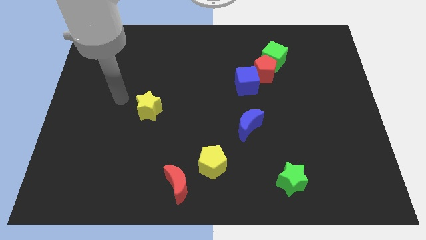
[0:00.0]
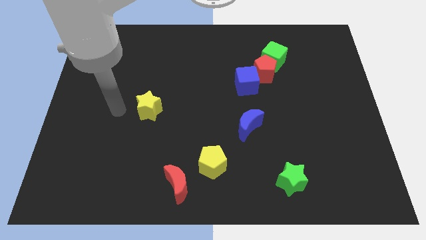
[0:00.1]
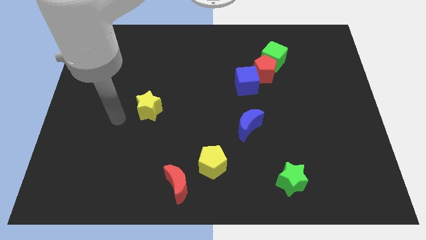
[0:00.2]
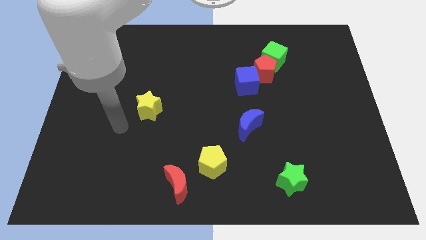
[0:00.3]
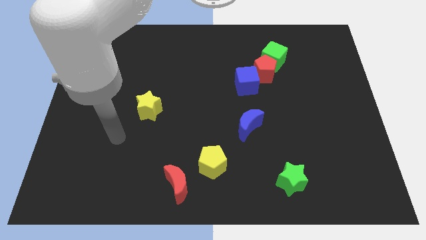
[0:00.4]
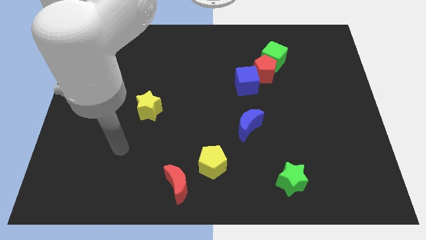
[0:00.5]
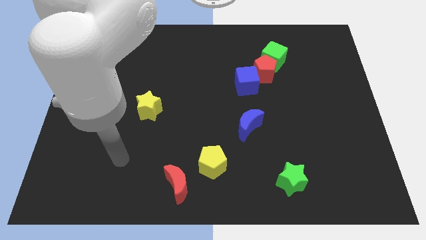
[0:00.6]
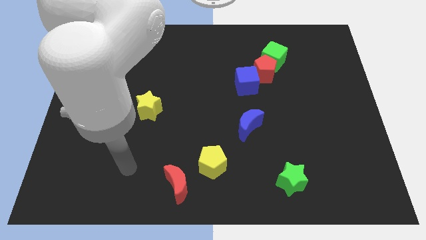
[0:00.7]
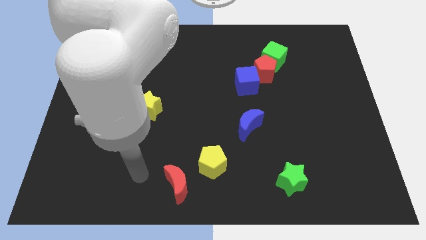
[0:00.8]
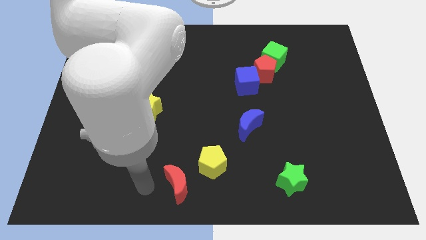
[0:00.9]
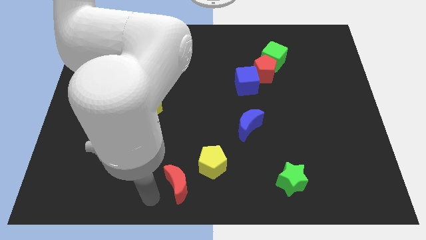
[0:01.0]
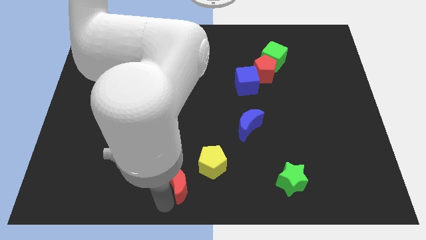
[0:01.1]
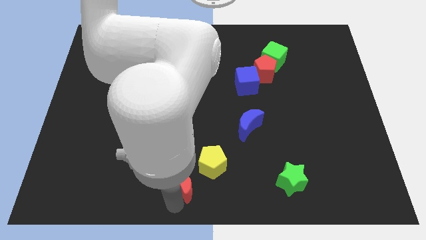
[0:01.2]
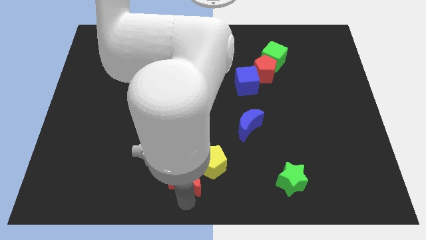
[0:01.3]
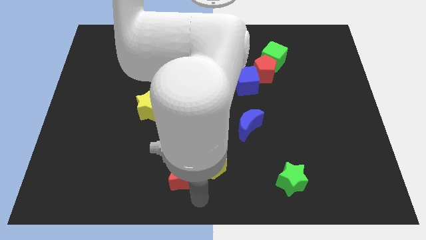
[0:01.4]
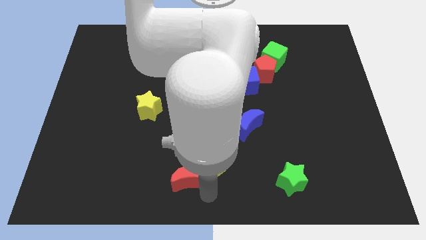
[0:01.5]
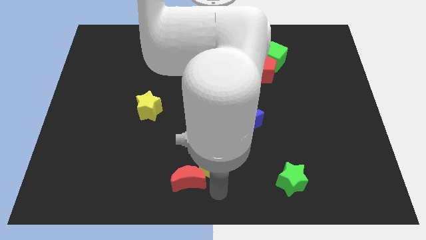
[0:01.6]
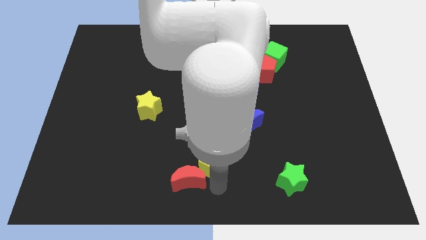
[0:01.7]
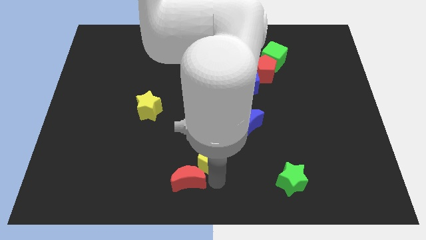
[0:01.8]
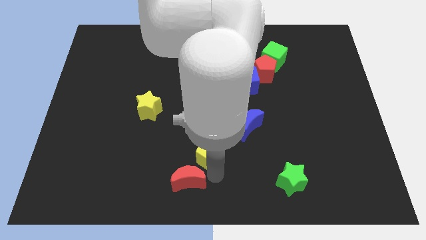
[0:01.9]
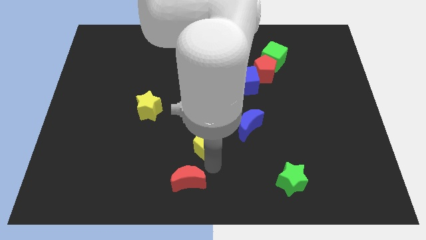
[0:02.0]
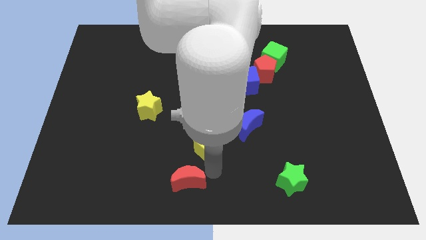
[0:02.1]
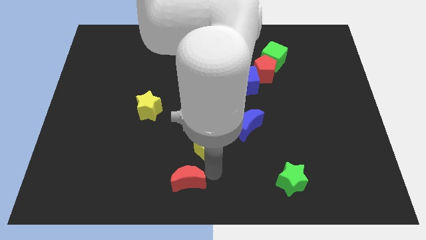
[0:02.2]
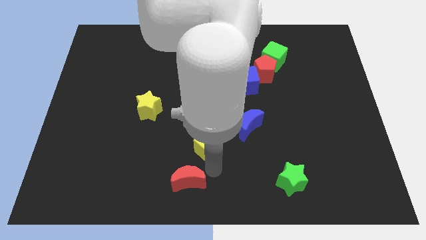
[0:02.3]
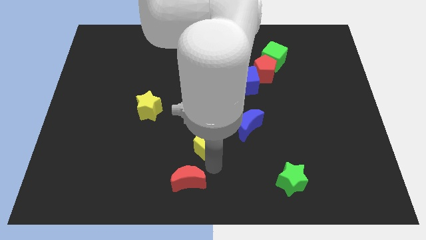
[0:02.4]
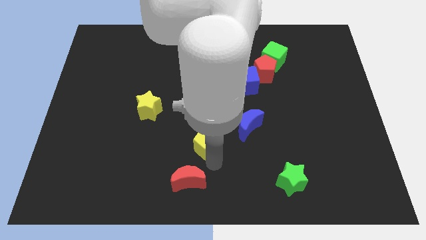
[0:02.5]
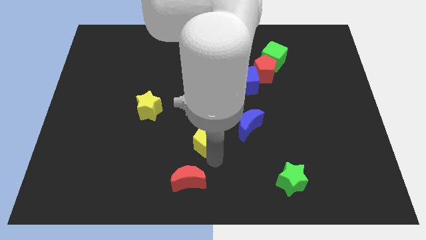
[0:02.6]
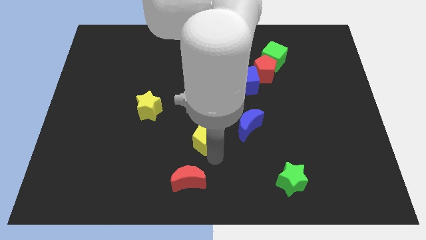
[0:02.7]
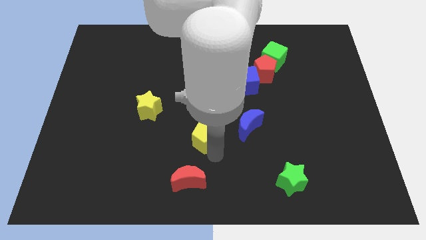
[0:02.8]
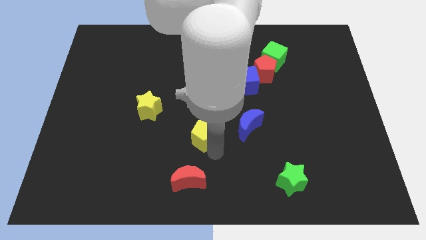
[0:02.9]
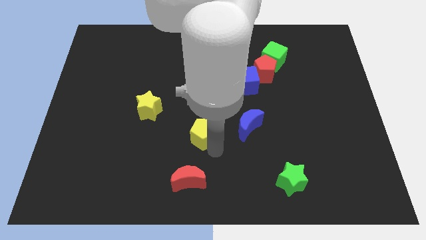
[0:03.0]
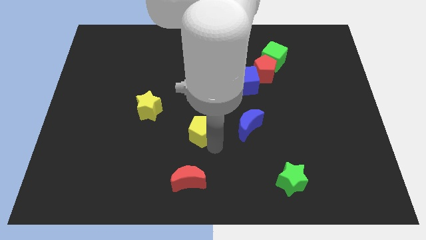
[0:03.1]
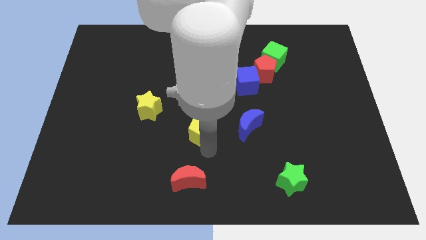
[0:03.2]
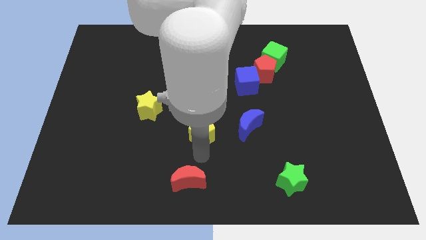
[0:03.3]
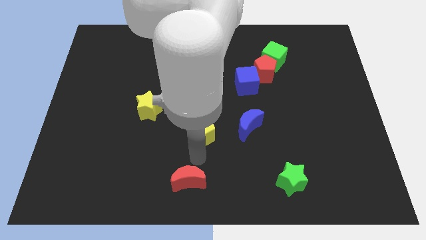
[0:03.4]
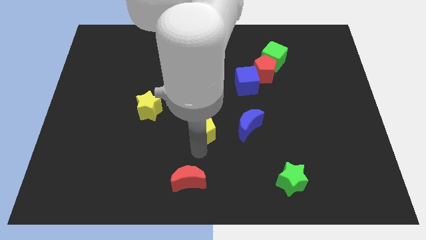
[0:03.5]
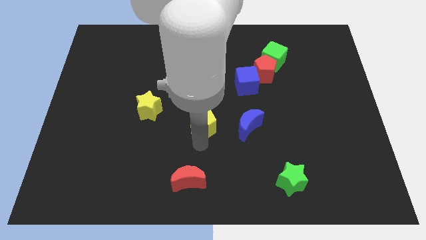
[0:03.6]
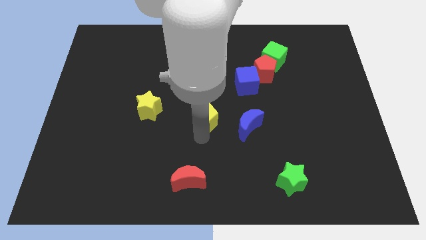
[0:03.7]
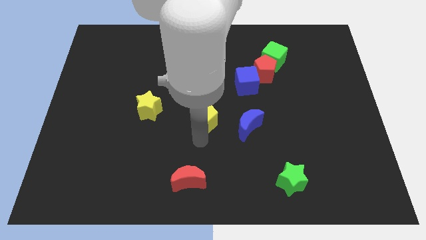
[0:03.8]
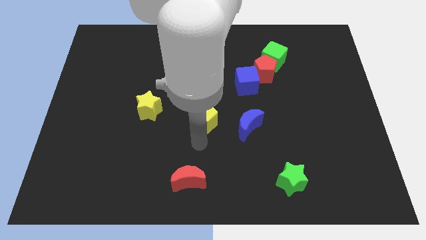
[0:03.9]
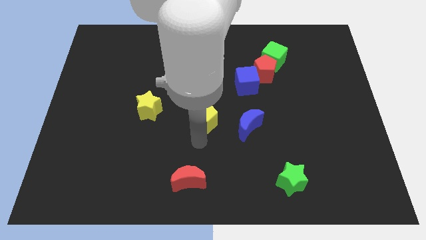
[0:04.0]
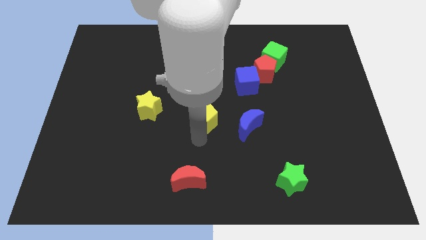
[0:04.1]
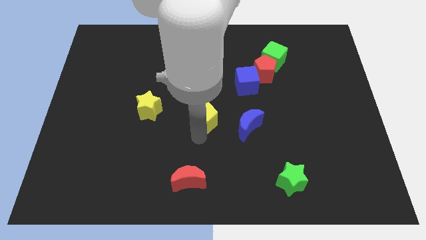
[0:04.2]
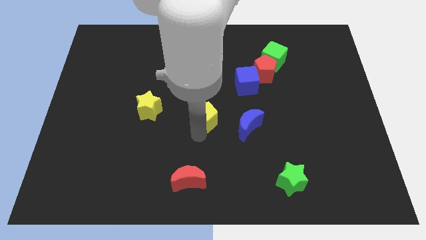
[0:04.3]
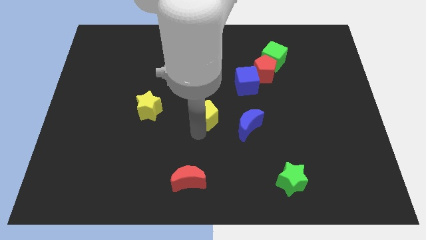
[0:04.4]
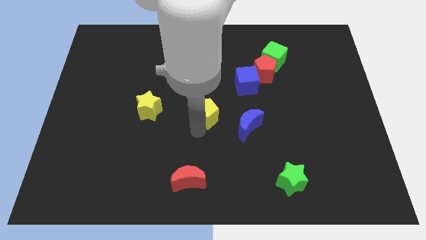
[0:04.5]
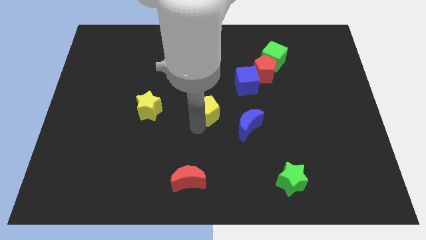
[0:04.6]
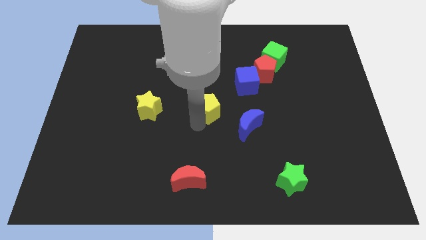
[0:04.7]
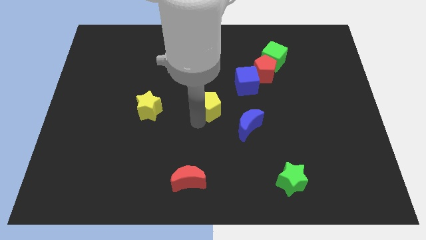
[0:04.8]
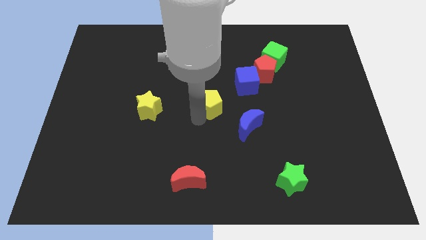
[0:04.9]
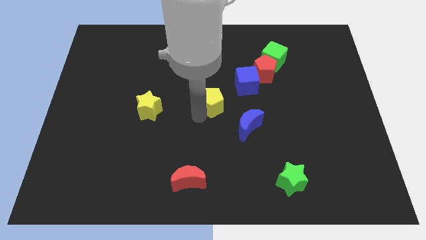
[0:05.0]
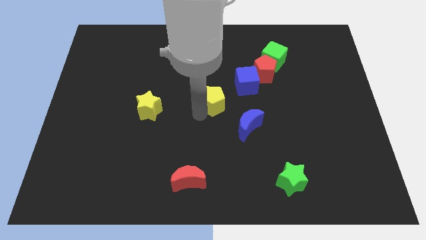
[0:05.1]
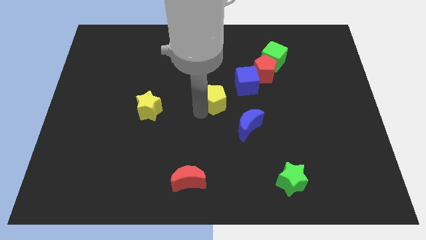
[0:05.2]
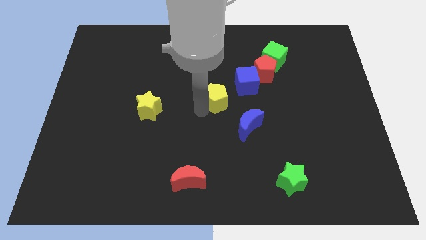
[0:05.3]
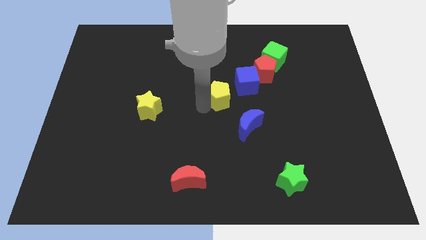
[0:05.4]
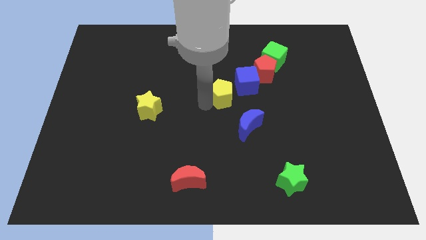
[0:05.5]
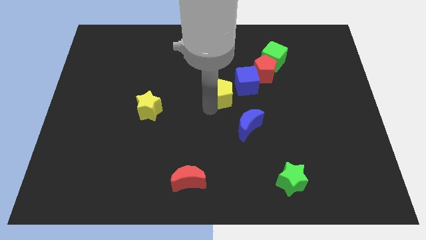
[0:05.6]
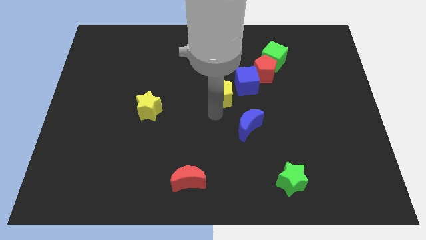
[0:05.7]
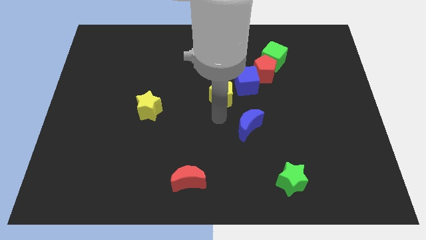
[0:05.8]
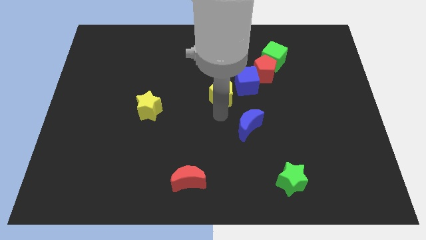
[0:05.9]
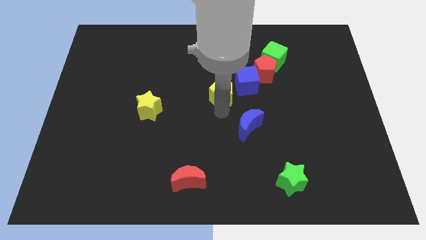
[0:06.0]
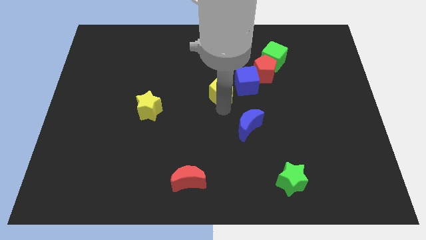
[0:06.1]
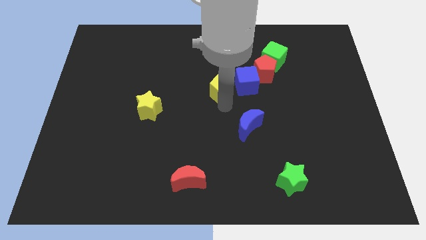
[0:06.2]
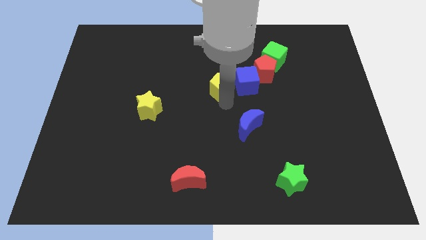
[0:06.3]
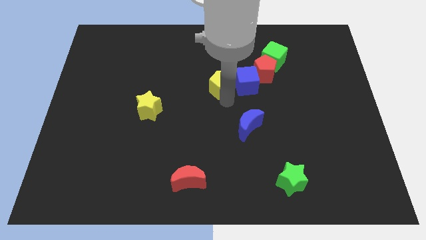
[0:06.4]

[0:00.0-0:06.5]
push the yellow pentagon to the top left of the blue cube

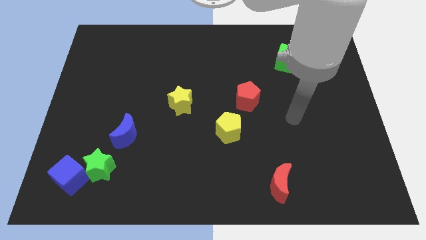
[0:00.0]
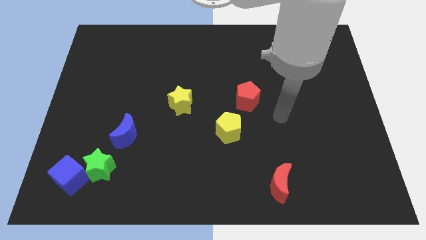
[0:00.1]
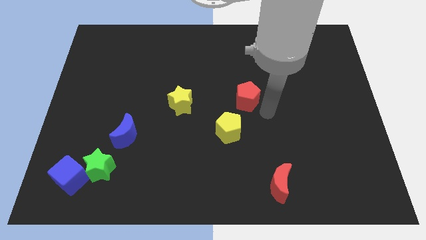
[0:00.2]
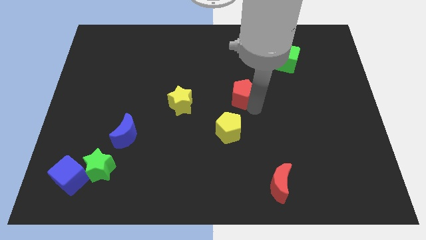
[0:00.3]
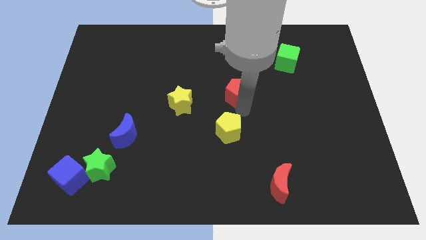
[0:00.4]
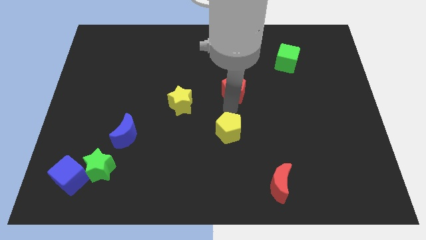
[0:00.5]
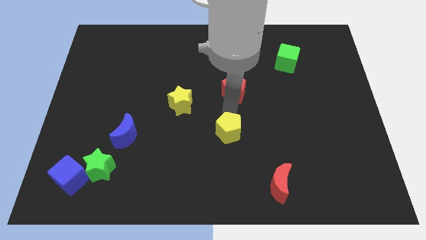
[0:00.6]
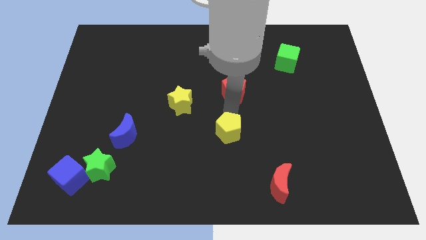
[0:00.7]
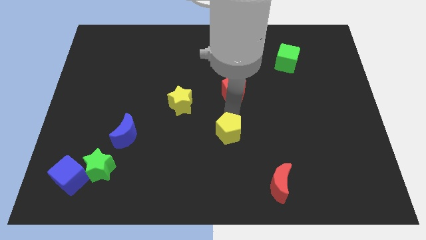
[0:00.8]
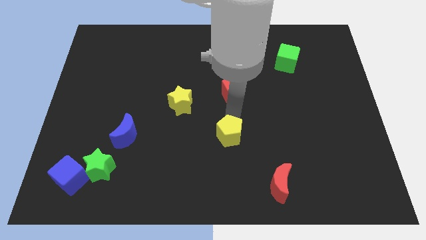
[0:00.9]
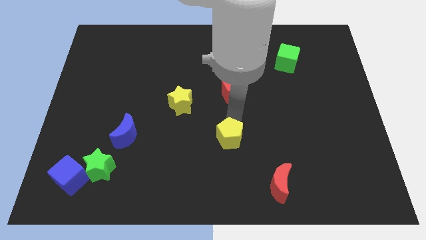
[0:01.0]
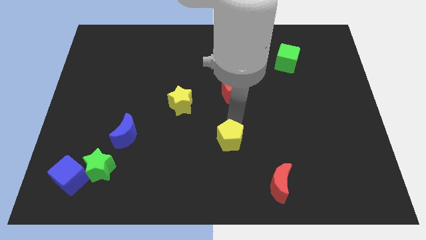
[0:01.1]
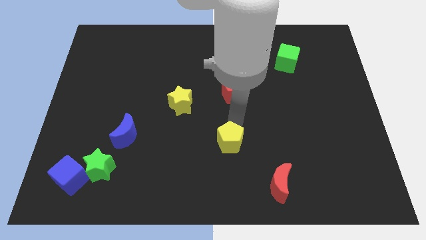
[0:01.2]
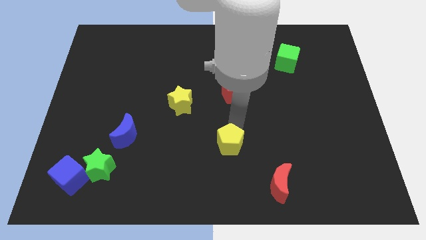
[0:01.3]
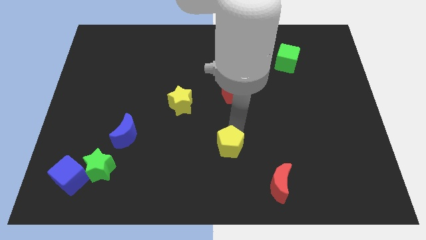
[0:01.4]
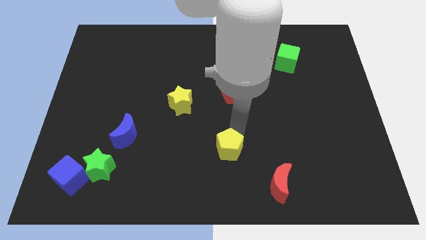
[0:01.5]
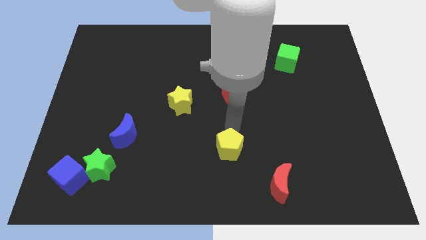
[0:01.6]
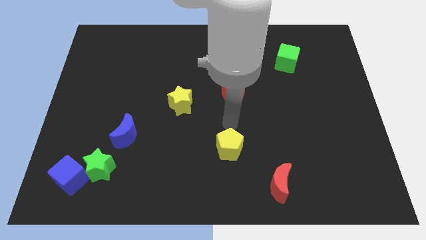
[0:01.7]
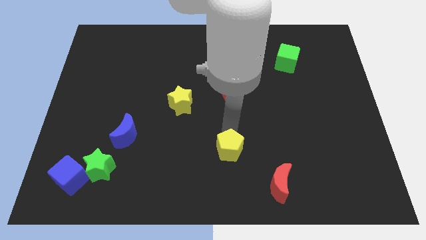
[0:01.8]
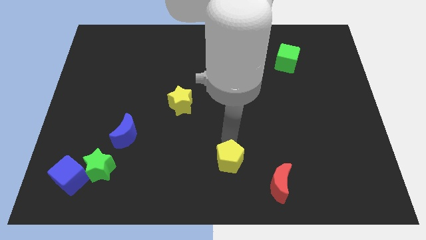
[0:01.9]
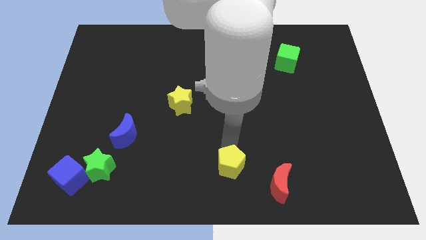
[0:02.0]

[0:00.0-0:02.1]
put the yellow pentagon to the left of the red moon
